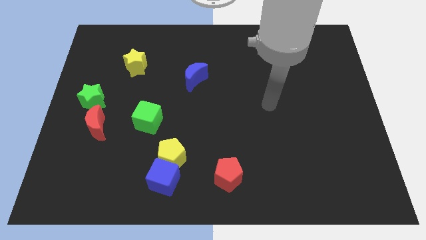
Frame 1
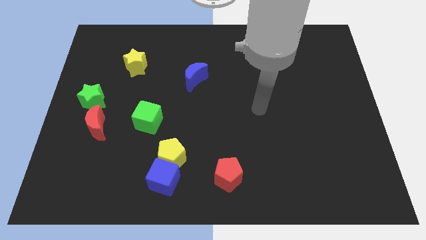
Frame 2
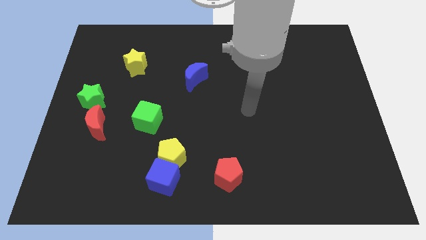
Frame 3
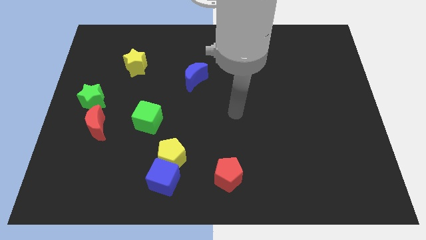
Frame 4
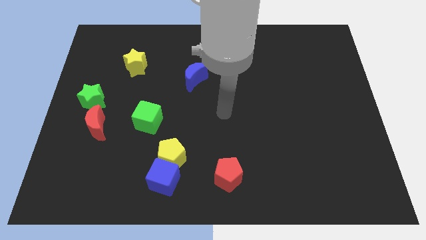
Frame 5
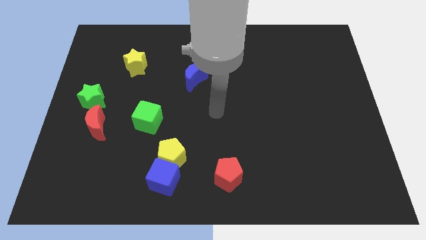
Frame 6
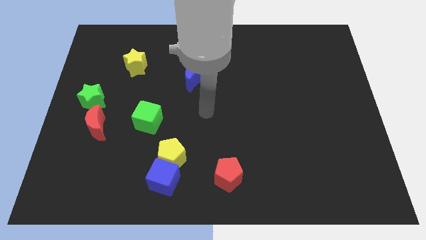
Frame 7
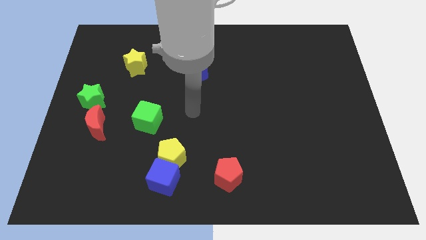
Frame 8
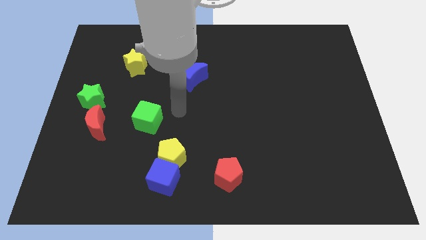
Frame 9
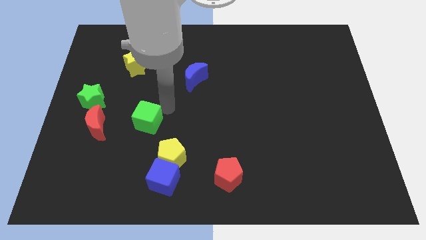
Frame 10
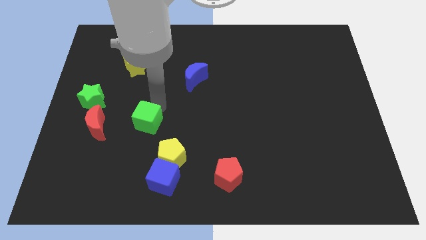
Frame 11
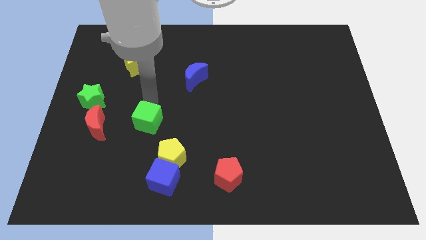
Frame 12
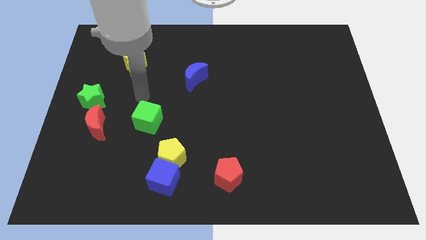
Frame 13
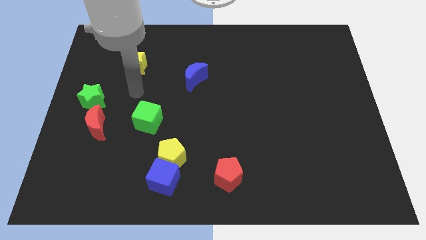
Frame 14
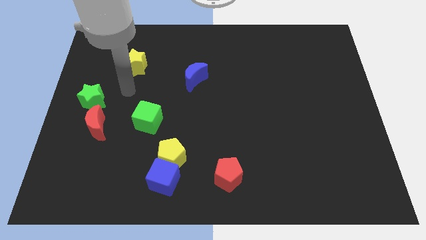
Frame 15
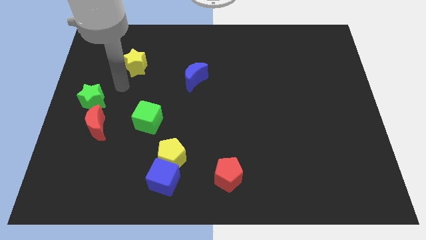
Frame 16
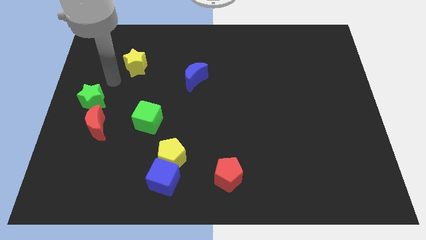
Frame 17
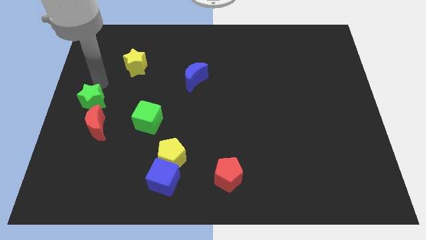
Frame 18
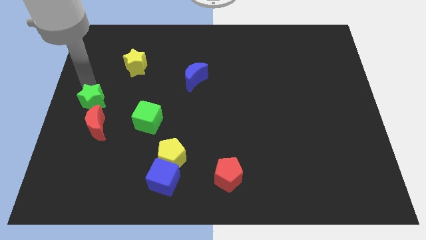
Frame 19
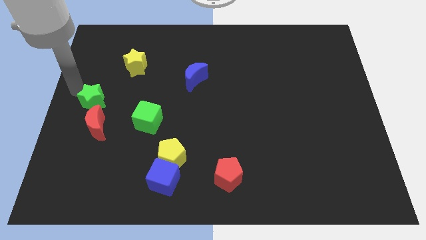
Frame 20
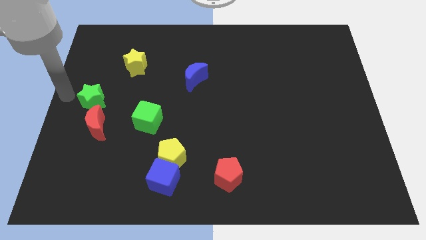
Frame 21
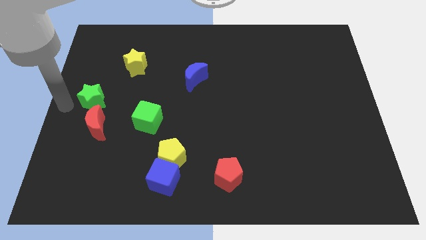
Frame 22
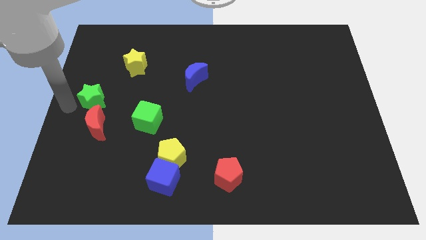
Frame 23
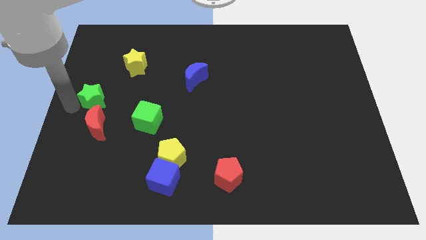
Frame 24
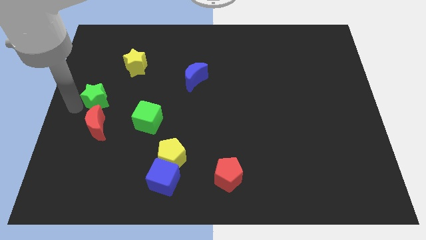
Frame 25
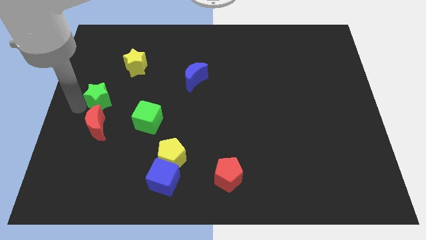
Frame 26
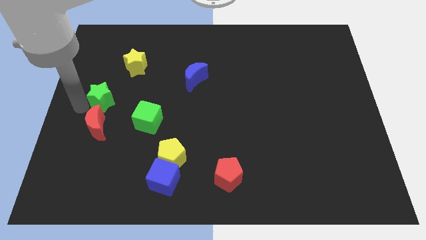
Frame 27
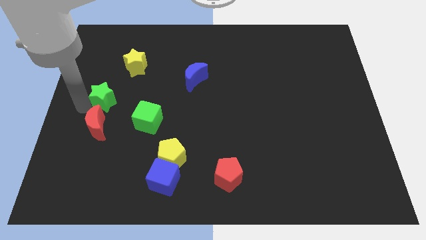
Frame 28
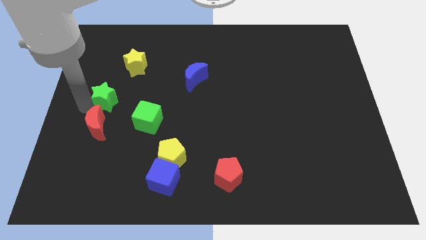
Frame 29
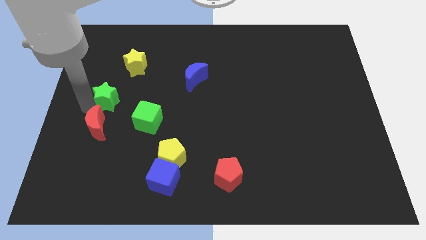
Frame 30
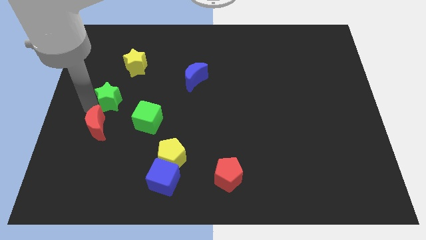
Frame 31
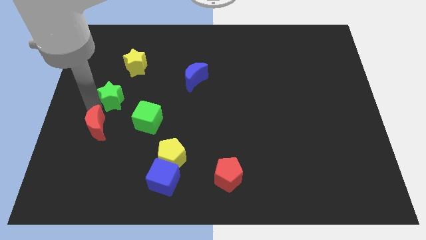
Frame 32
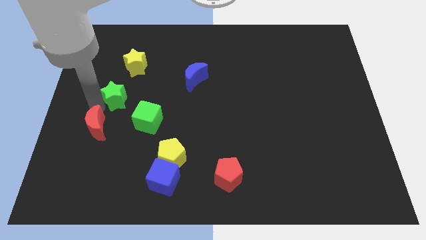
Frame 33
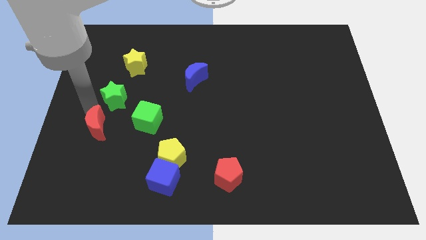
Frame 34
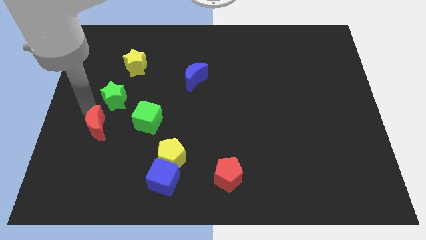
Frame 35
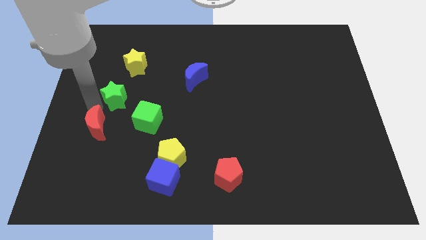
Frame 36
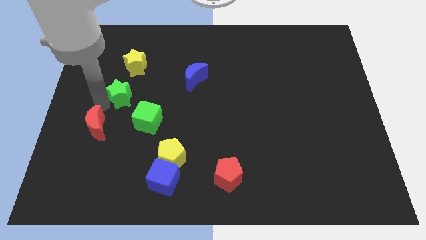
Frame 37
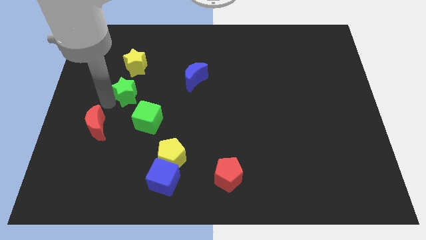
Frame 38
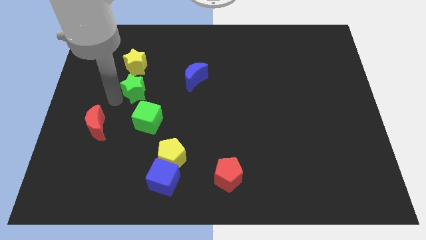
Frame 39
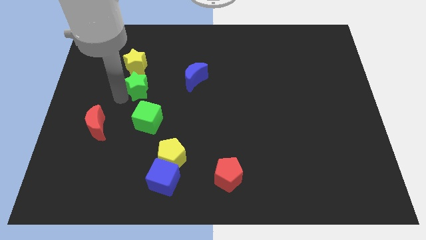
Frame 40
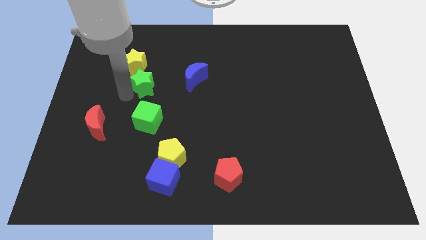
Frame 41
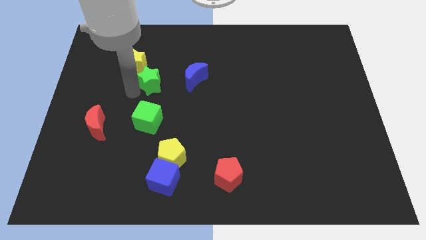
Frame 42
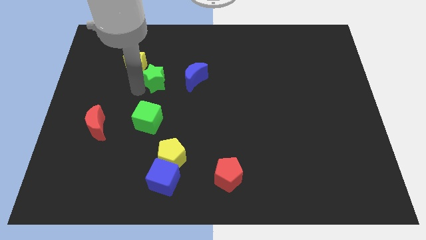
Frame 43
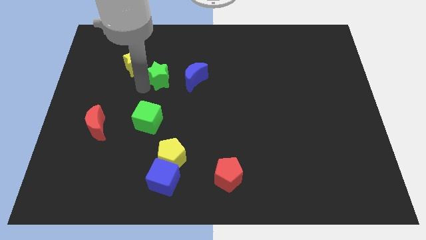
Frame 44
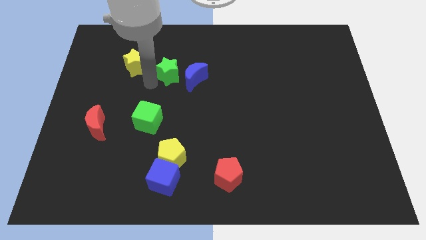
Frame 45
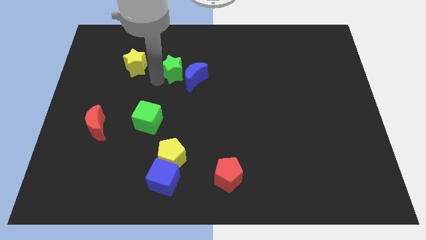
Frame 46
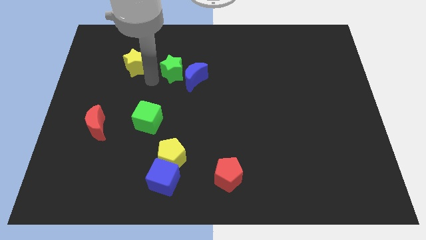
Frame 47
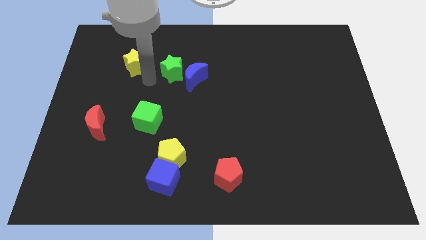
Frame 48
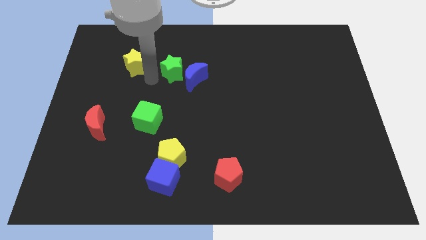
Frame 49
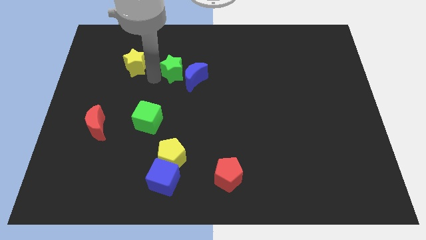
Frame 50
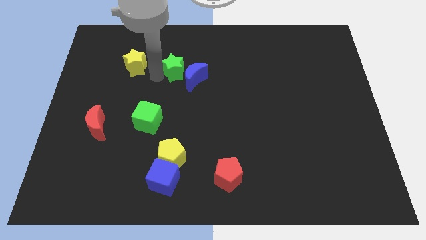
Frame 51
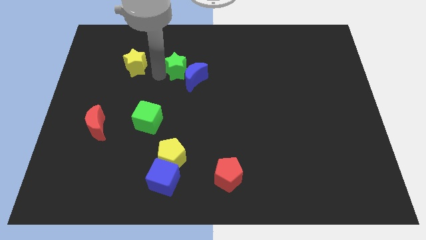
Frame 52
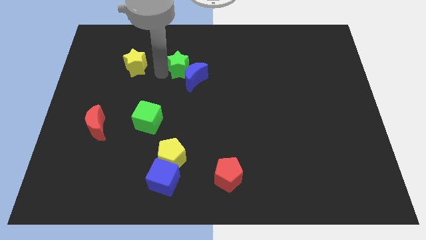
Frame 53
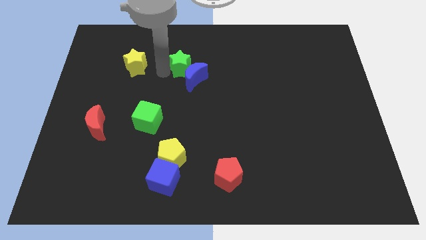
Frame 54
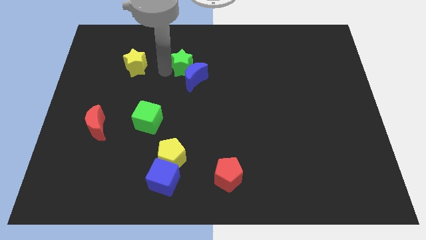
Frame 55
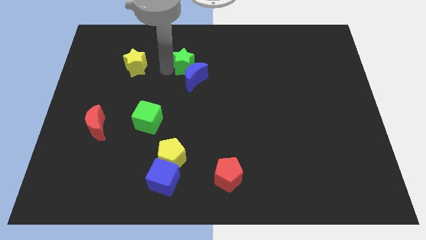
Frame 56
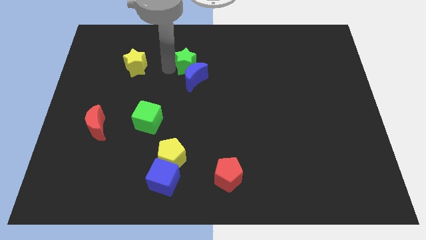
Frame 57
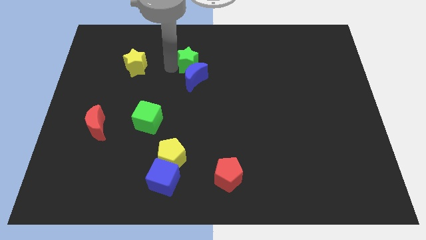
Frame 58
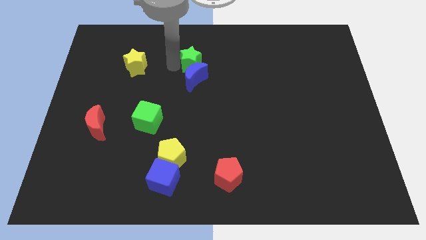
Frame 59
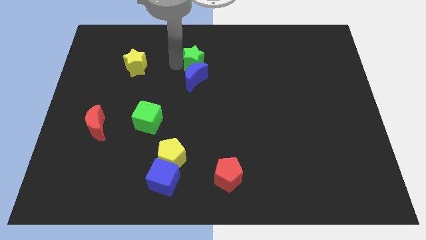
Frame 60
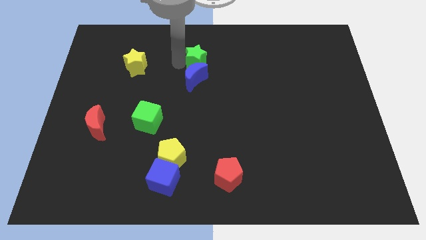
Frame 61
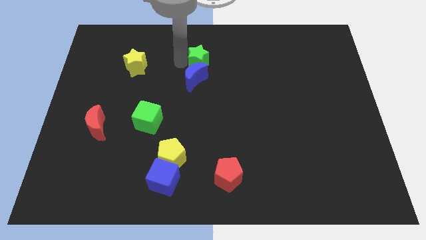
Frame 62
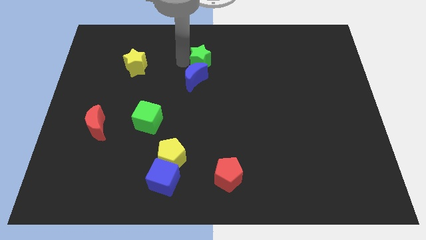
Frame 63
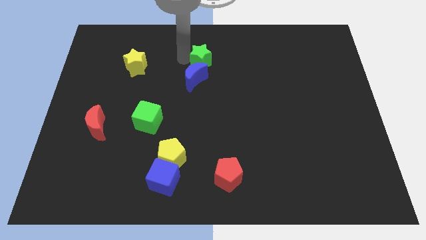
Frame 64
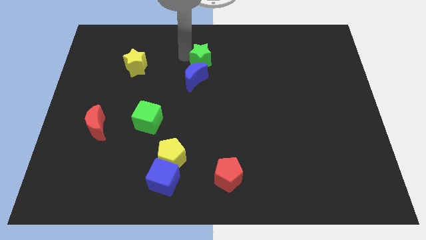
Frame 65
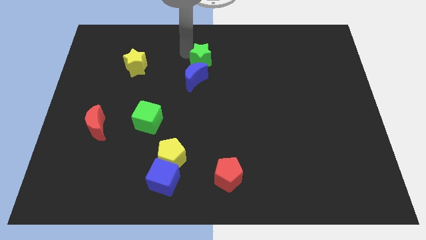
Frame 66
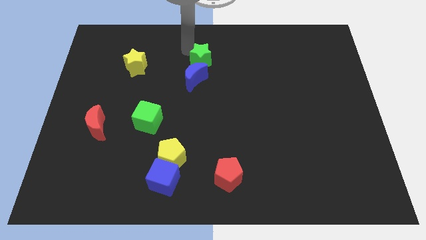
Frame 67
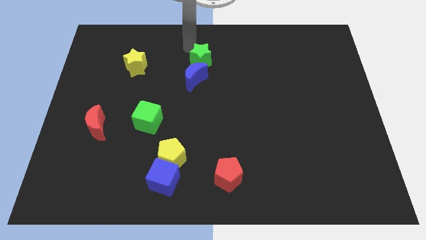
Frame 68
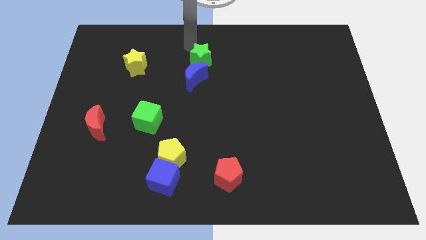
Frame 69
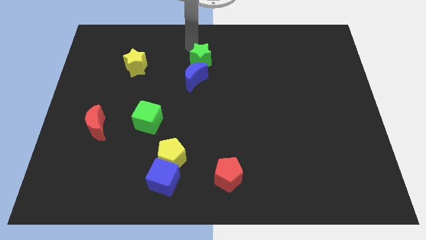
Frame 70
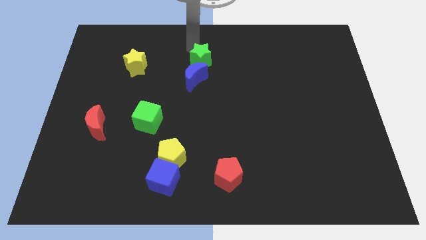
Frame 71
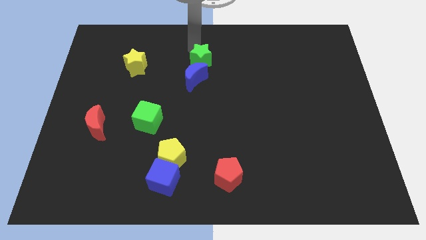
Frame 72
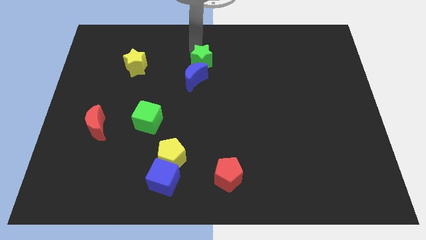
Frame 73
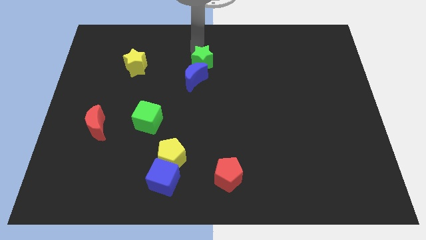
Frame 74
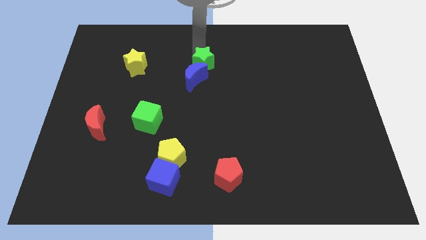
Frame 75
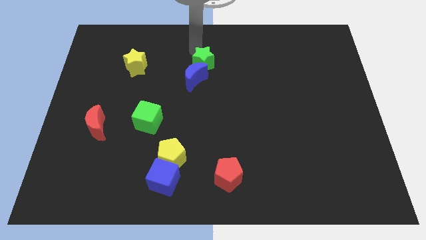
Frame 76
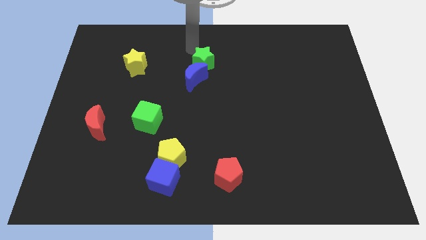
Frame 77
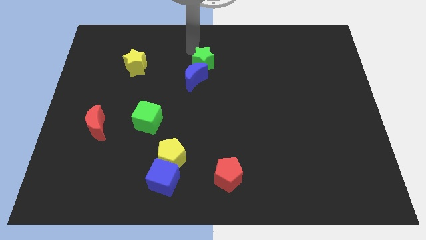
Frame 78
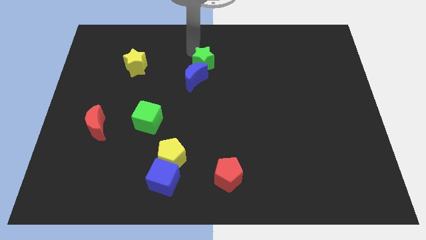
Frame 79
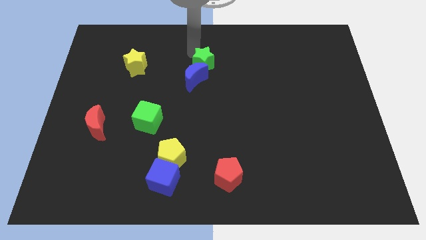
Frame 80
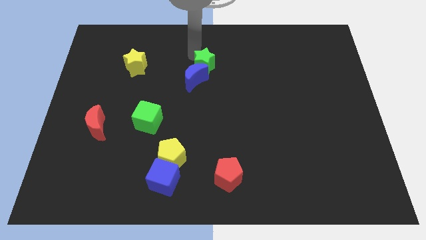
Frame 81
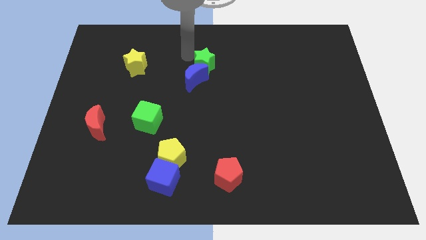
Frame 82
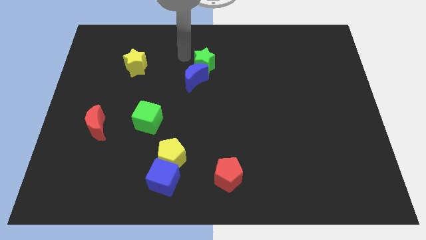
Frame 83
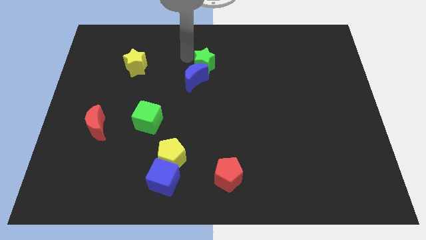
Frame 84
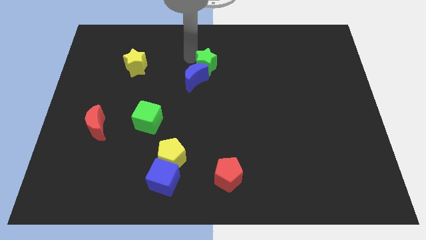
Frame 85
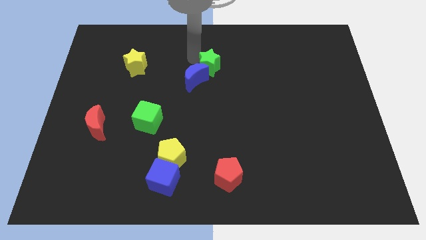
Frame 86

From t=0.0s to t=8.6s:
put the green star right of the blue moon
